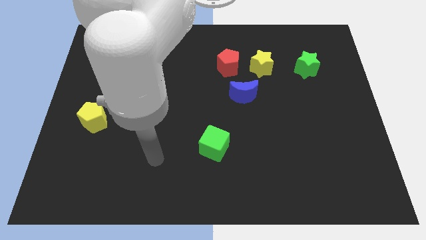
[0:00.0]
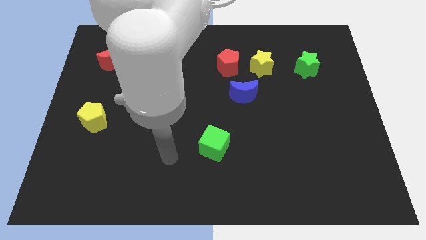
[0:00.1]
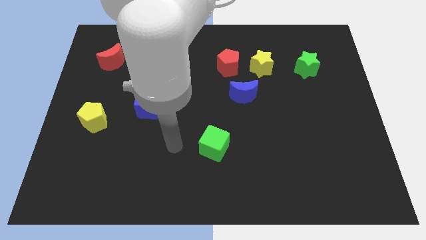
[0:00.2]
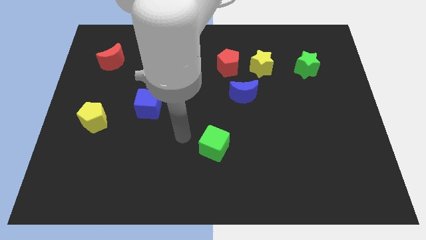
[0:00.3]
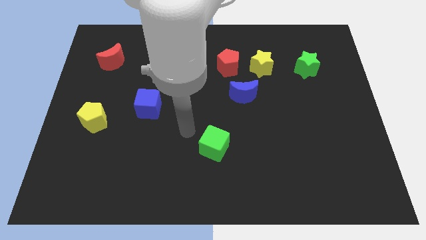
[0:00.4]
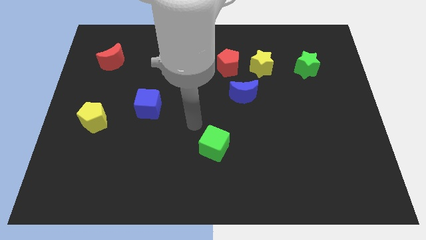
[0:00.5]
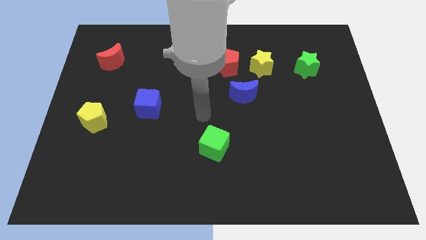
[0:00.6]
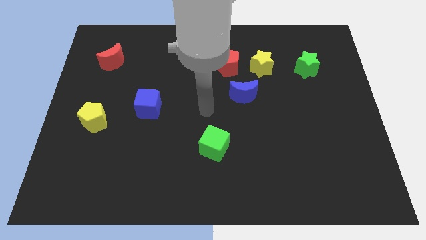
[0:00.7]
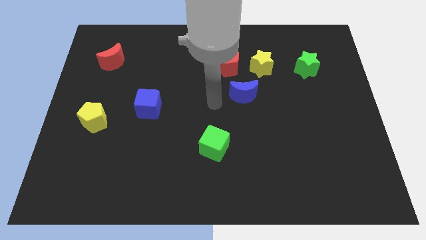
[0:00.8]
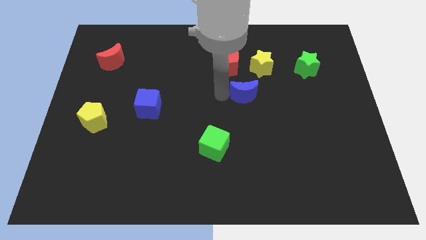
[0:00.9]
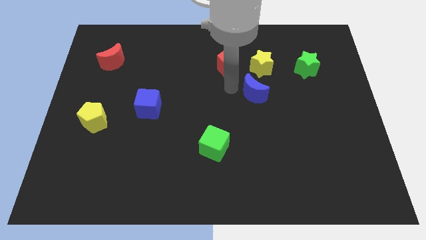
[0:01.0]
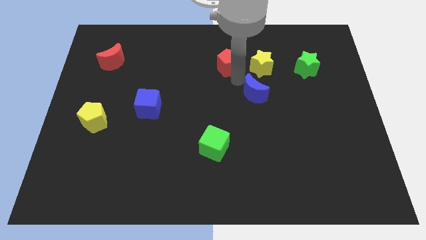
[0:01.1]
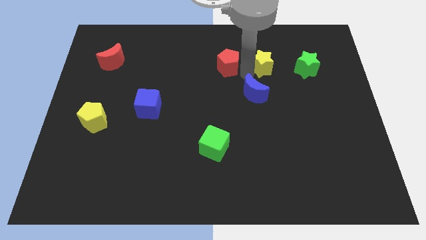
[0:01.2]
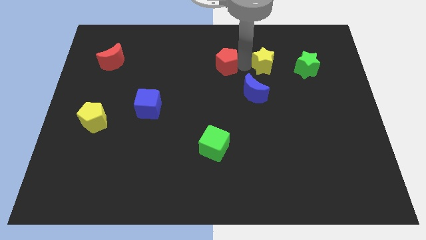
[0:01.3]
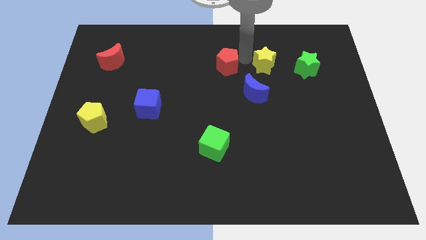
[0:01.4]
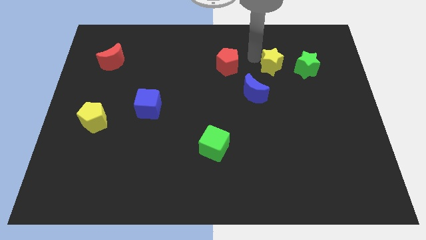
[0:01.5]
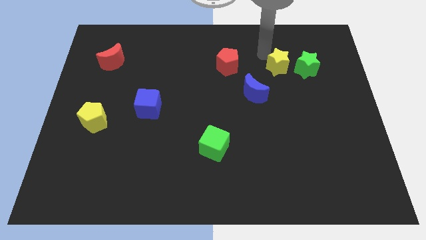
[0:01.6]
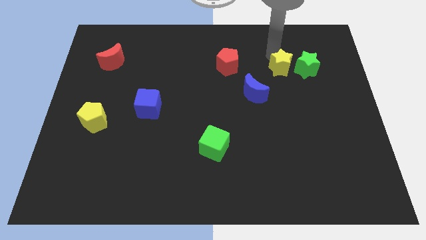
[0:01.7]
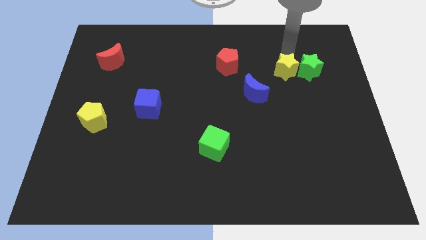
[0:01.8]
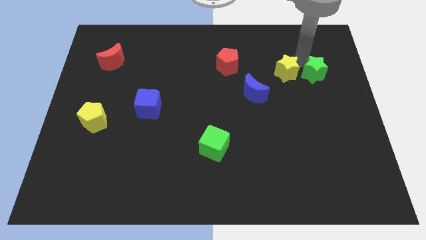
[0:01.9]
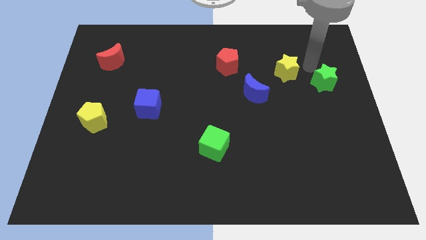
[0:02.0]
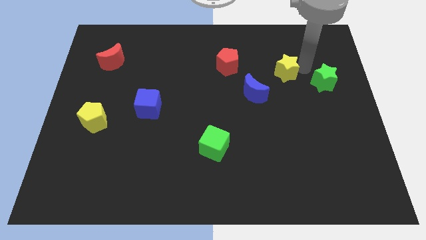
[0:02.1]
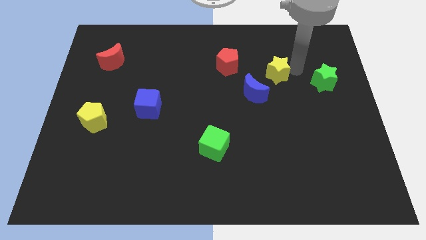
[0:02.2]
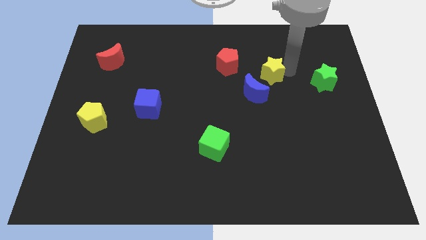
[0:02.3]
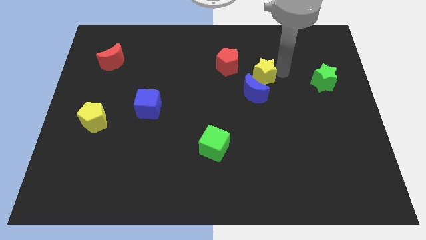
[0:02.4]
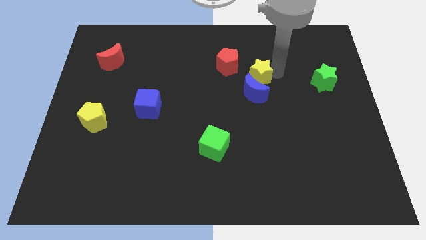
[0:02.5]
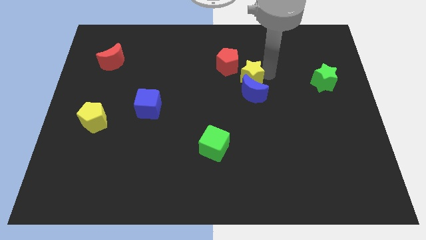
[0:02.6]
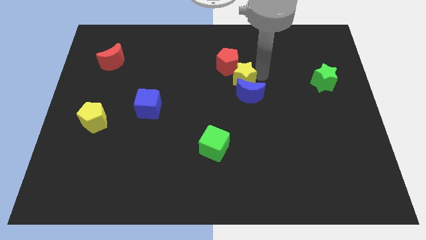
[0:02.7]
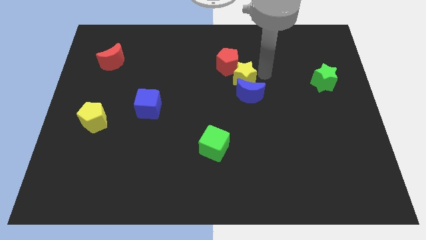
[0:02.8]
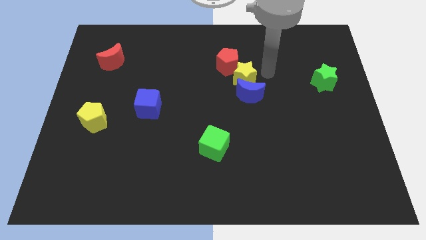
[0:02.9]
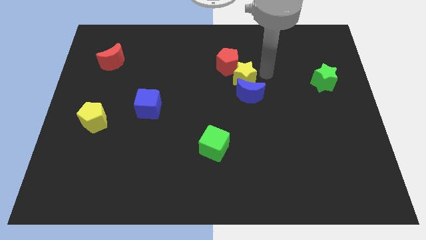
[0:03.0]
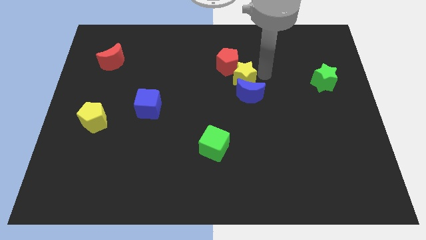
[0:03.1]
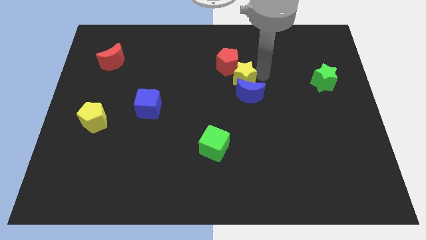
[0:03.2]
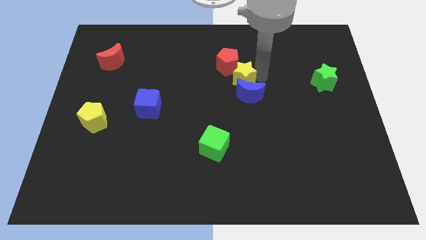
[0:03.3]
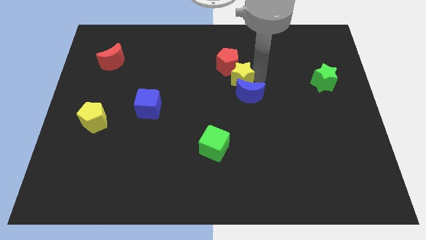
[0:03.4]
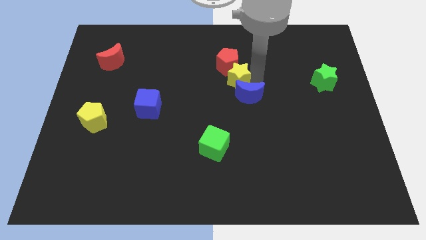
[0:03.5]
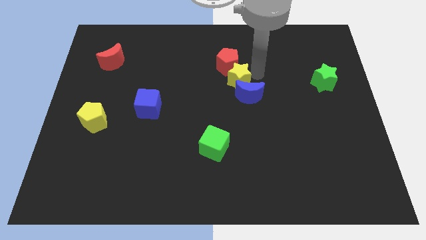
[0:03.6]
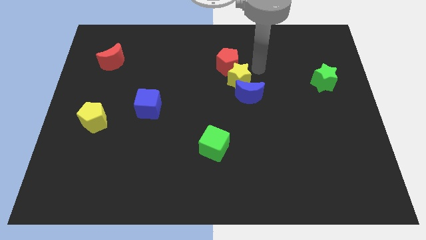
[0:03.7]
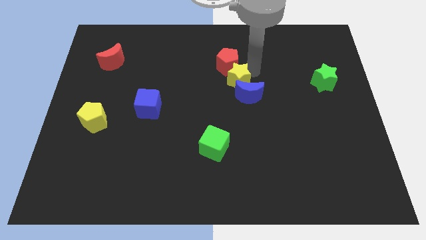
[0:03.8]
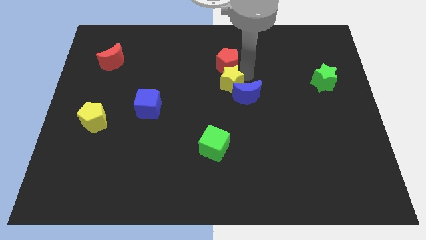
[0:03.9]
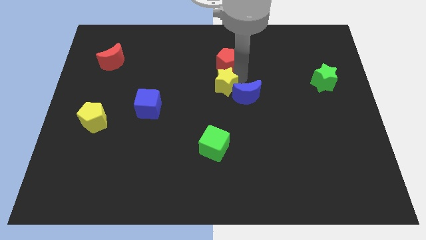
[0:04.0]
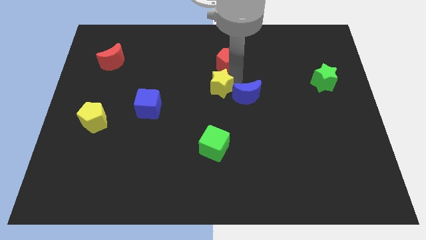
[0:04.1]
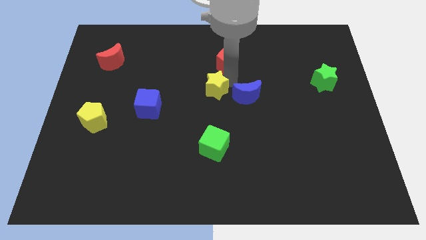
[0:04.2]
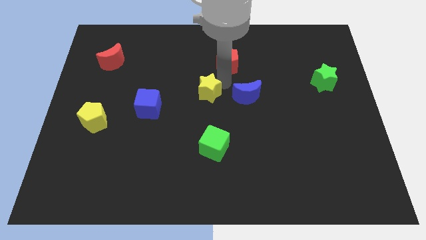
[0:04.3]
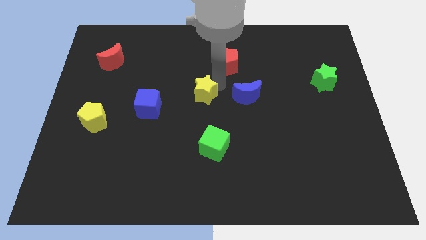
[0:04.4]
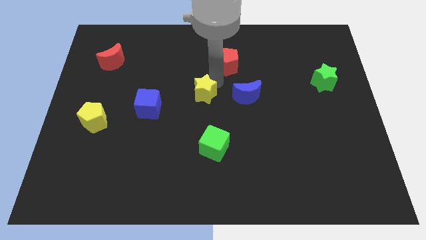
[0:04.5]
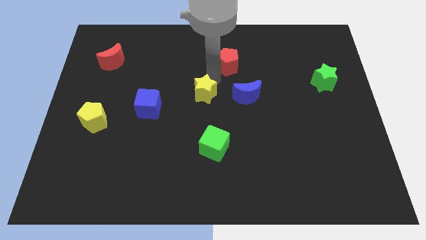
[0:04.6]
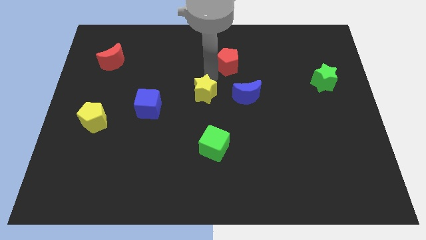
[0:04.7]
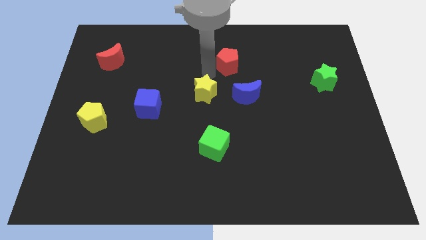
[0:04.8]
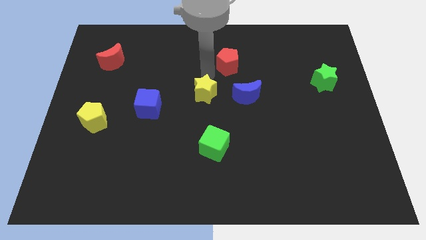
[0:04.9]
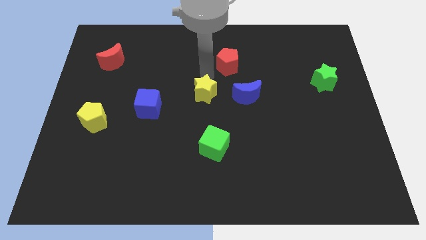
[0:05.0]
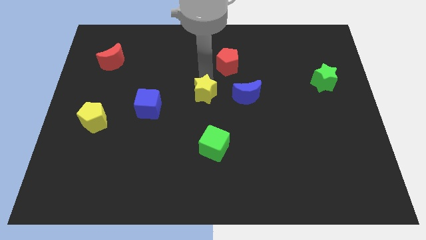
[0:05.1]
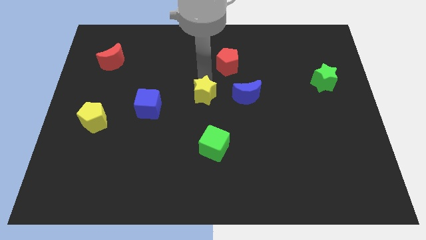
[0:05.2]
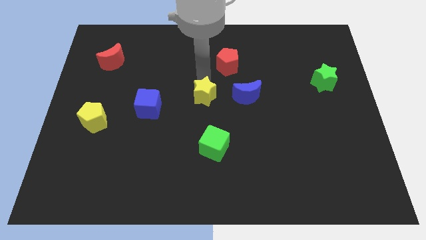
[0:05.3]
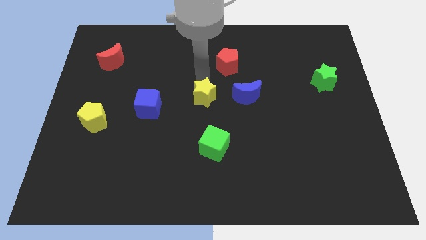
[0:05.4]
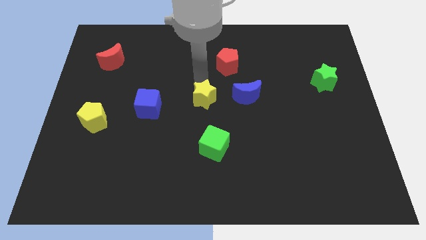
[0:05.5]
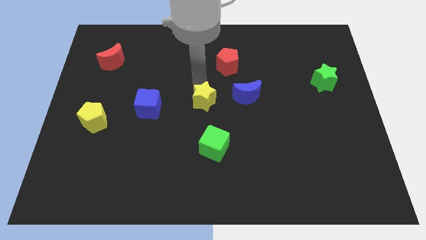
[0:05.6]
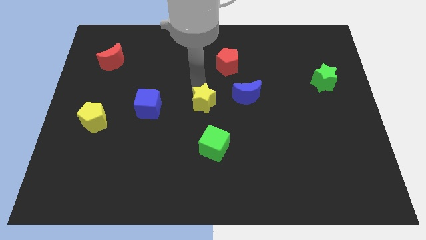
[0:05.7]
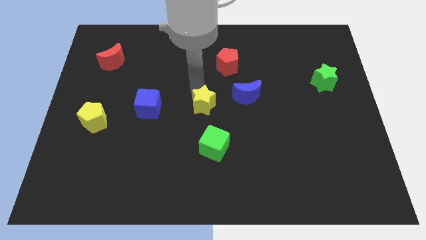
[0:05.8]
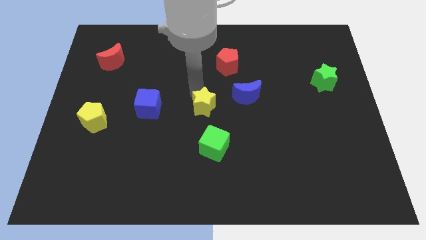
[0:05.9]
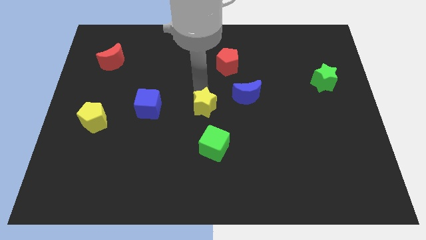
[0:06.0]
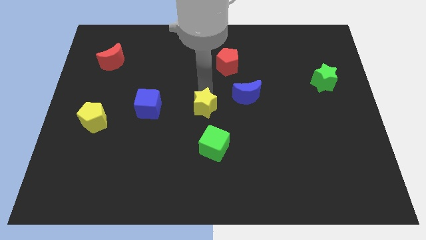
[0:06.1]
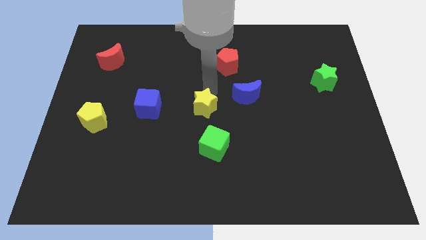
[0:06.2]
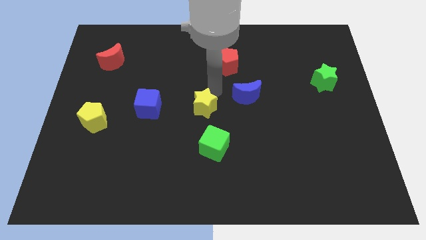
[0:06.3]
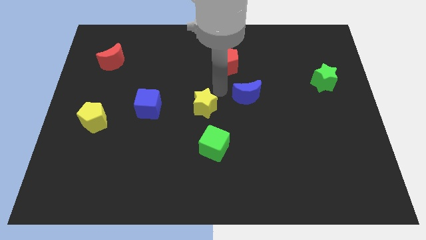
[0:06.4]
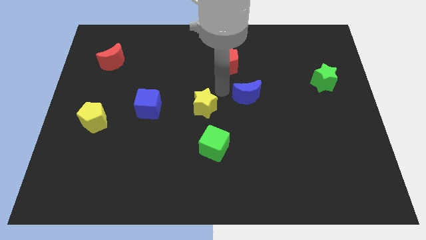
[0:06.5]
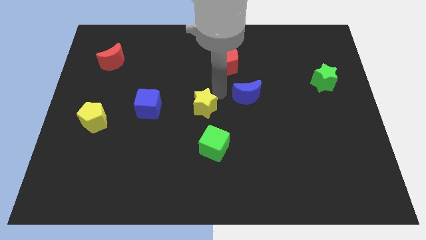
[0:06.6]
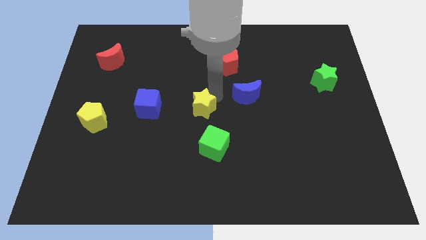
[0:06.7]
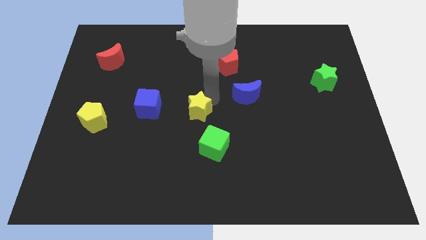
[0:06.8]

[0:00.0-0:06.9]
move the yellow star diagonally down and to the left

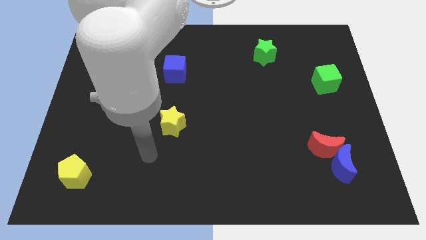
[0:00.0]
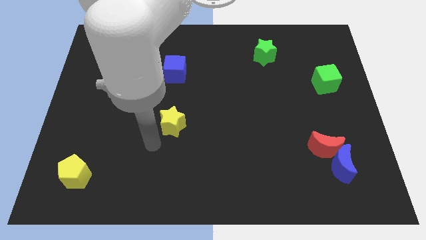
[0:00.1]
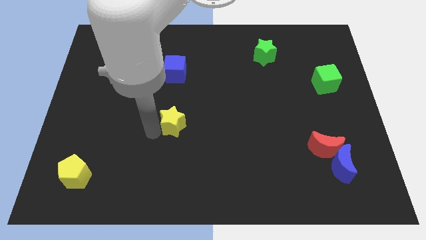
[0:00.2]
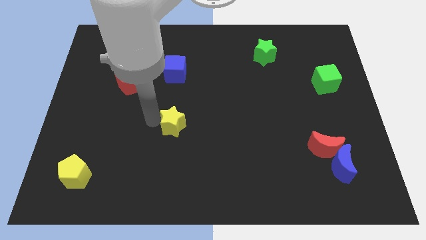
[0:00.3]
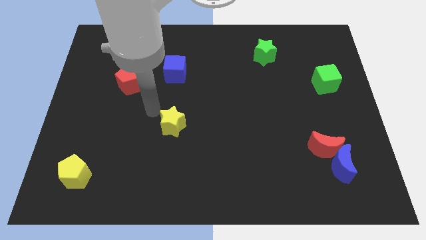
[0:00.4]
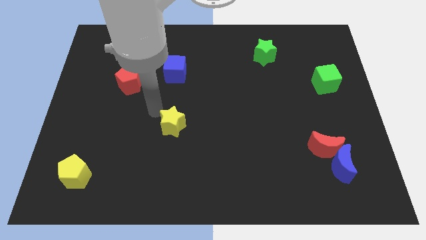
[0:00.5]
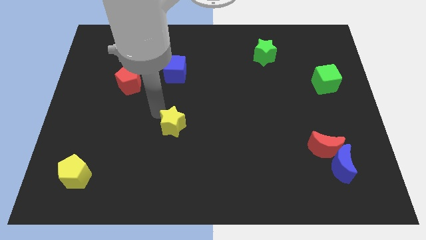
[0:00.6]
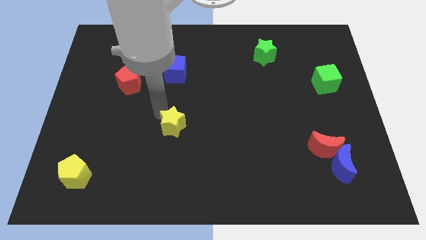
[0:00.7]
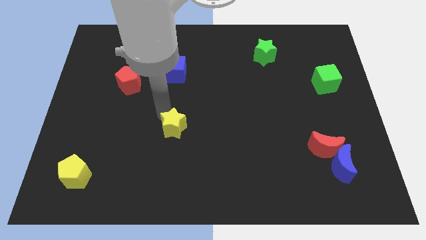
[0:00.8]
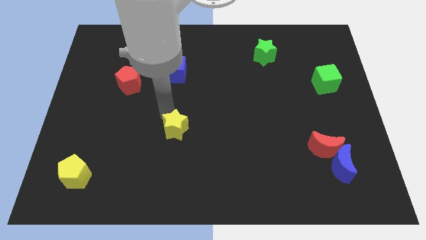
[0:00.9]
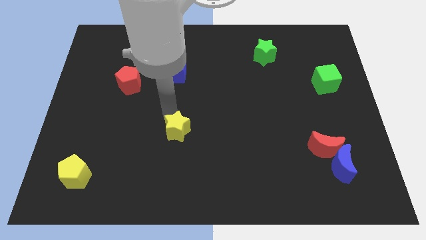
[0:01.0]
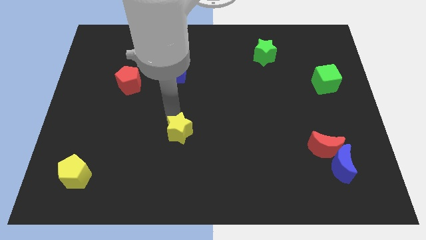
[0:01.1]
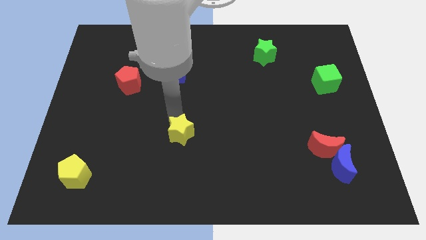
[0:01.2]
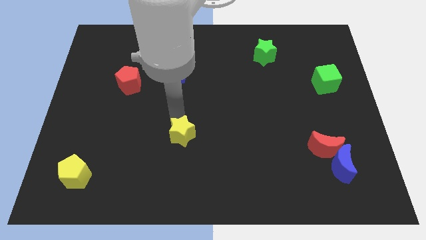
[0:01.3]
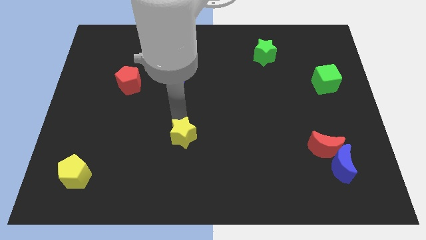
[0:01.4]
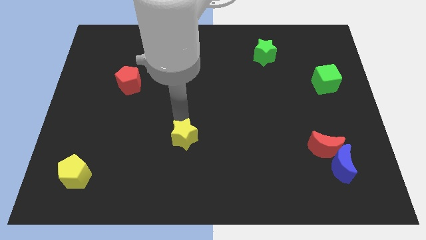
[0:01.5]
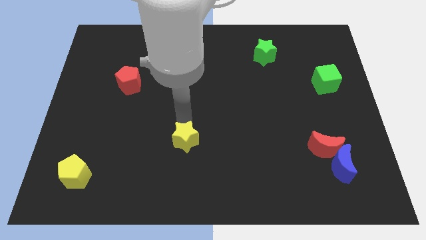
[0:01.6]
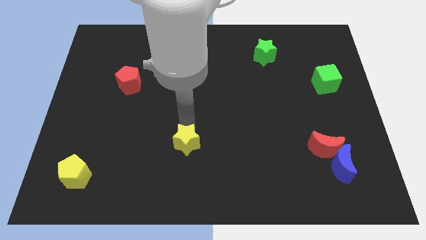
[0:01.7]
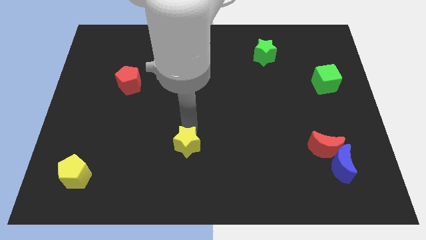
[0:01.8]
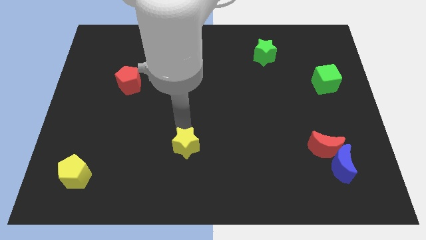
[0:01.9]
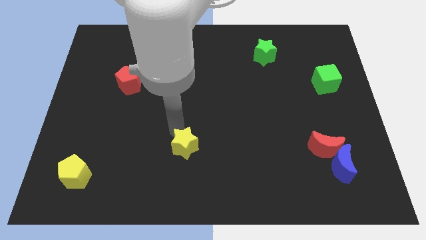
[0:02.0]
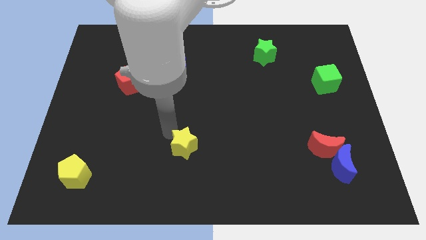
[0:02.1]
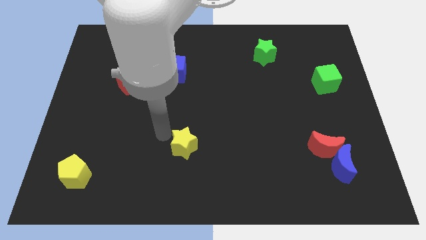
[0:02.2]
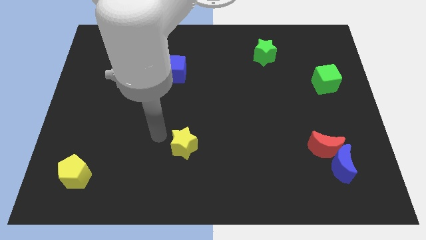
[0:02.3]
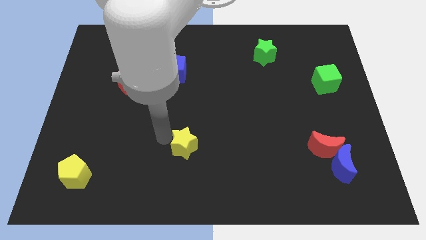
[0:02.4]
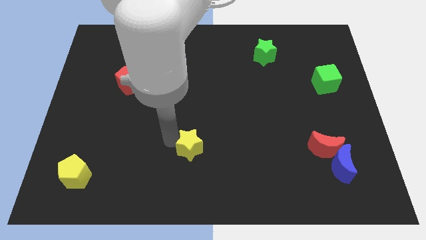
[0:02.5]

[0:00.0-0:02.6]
move the yellow star a little downwards and to the right
